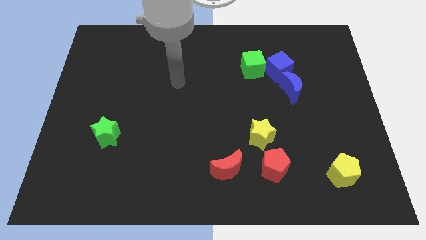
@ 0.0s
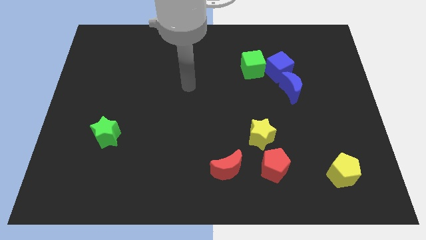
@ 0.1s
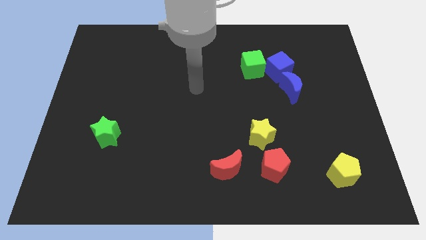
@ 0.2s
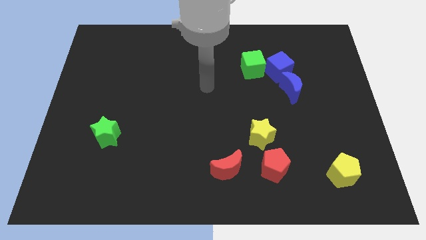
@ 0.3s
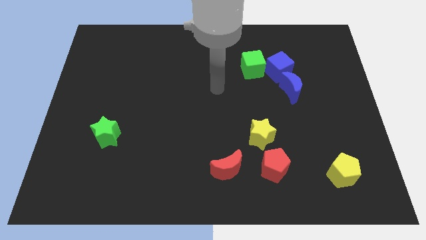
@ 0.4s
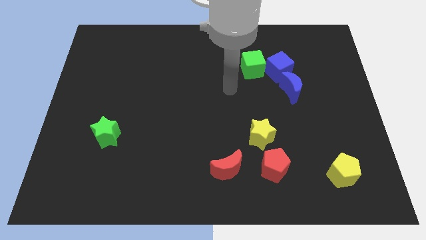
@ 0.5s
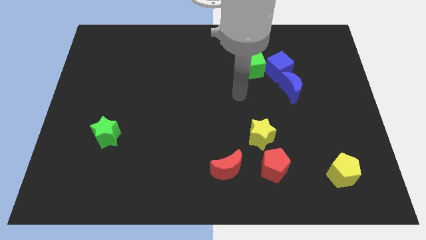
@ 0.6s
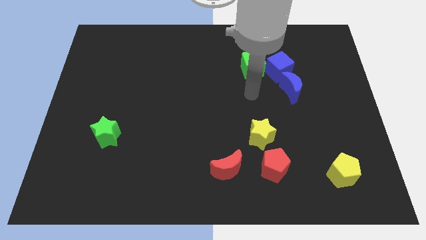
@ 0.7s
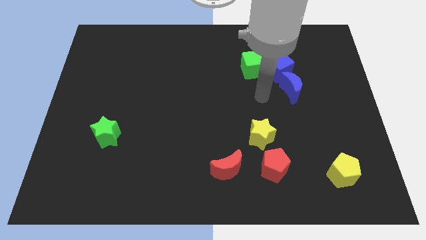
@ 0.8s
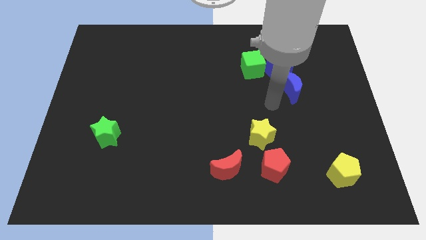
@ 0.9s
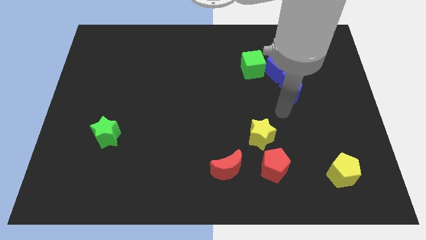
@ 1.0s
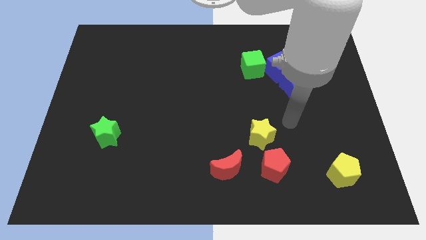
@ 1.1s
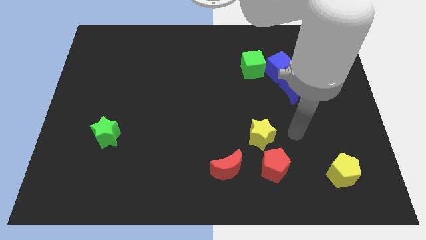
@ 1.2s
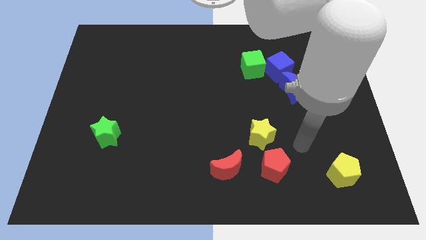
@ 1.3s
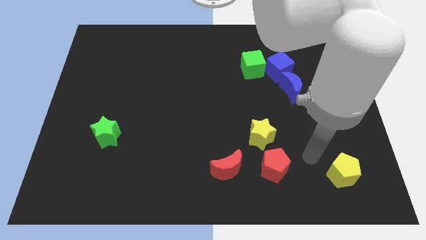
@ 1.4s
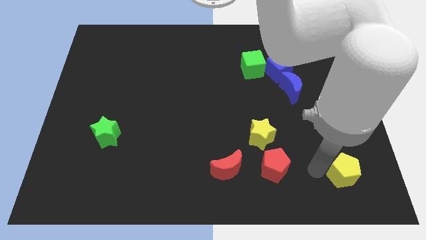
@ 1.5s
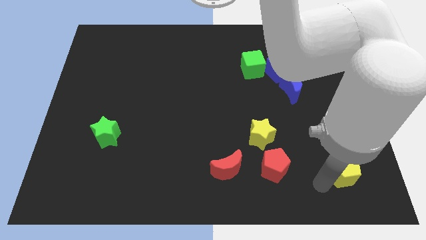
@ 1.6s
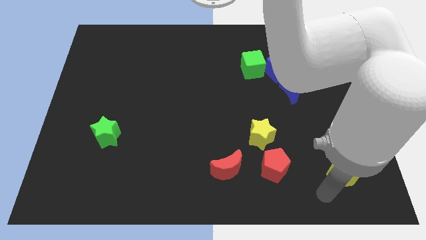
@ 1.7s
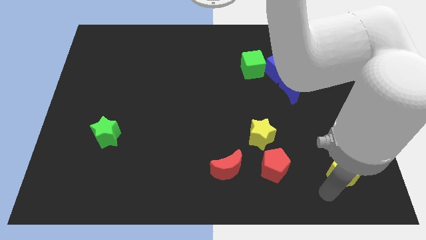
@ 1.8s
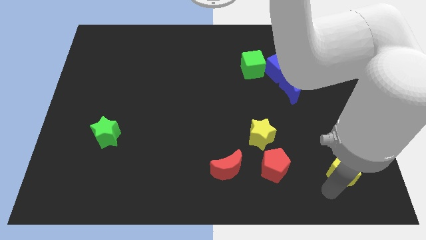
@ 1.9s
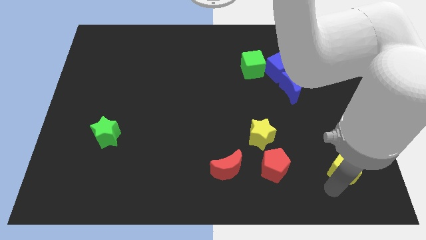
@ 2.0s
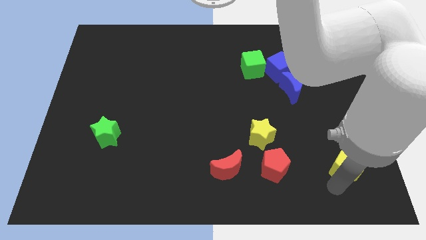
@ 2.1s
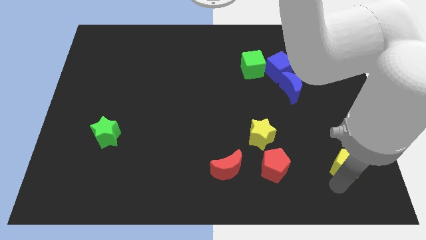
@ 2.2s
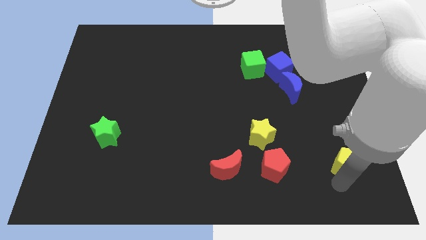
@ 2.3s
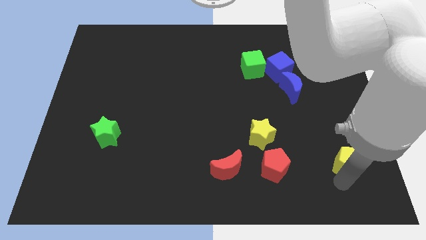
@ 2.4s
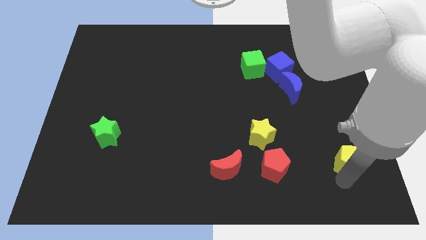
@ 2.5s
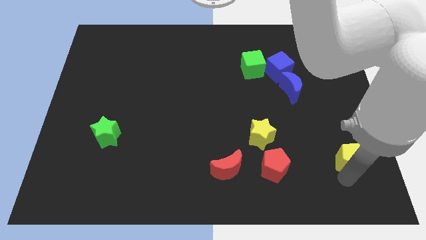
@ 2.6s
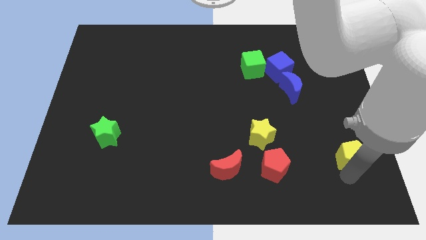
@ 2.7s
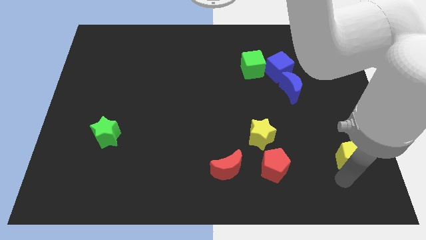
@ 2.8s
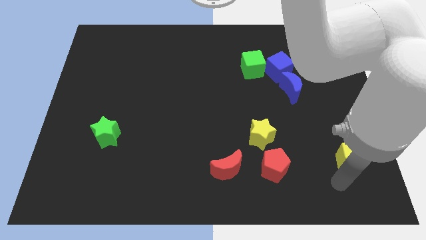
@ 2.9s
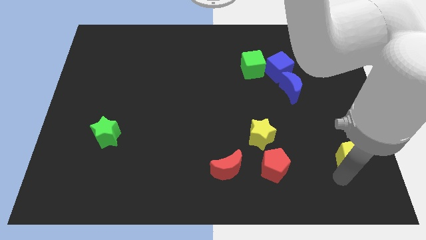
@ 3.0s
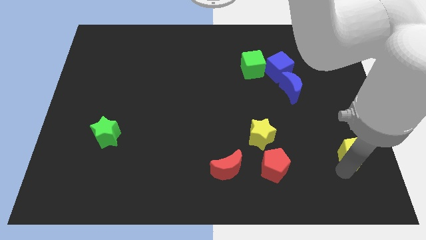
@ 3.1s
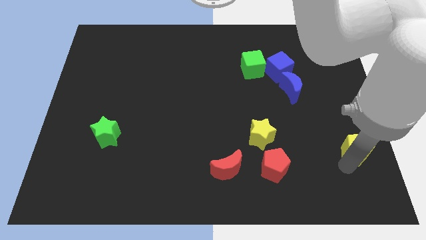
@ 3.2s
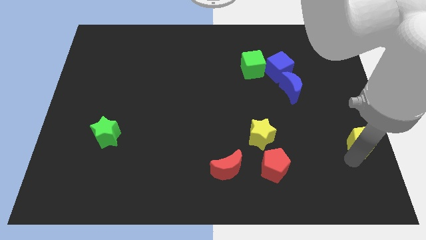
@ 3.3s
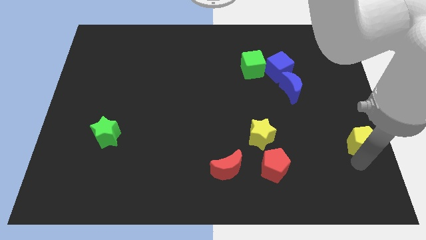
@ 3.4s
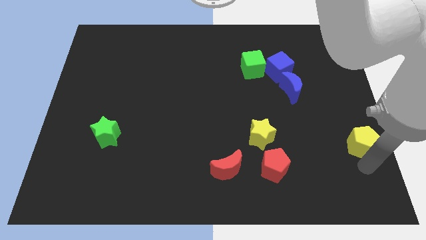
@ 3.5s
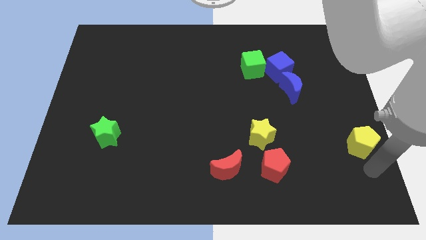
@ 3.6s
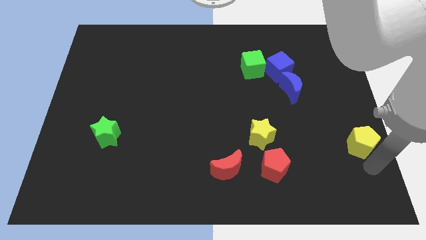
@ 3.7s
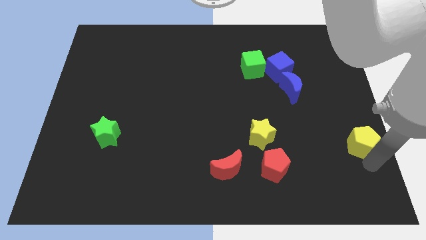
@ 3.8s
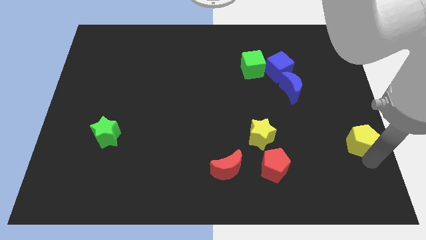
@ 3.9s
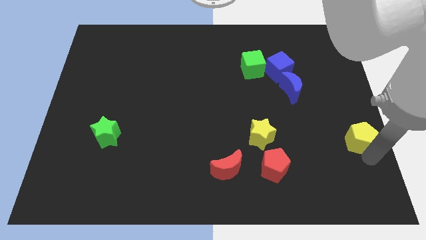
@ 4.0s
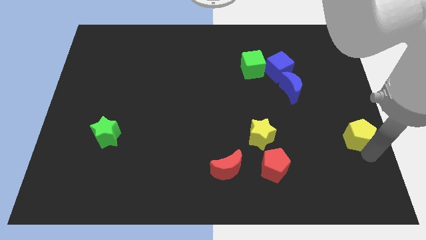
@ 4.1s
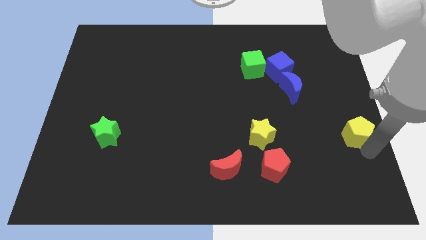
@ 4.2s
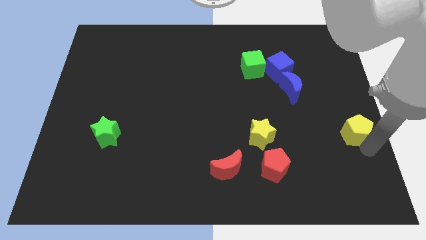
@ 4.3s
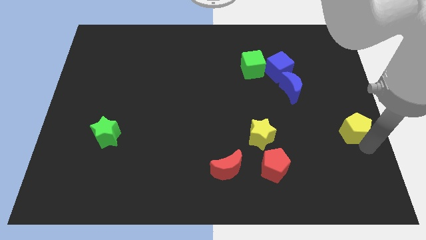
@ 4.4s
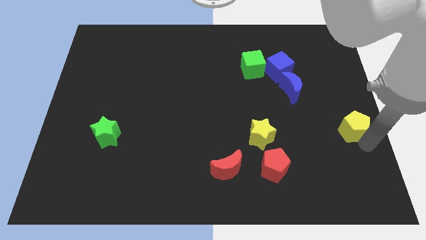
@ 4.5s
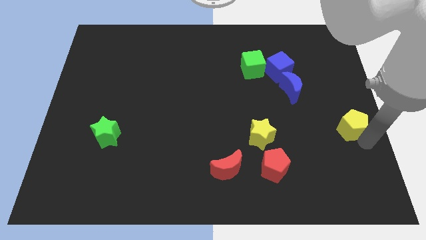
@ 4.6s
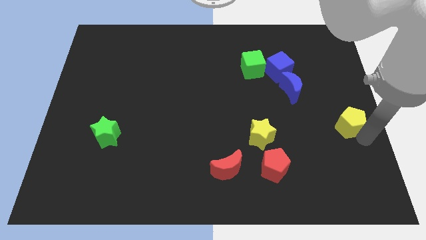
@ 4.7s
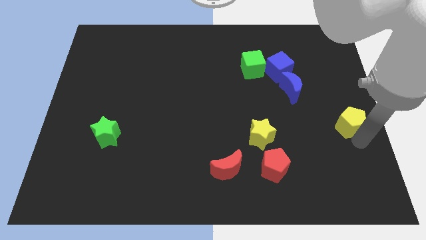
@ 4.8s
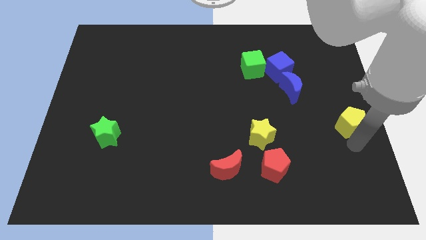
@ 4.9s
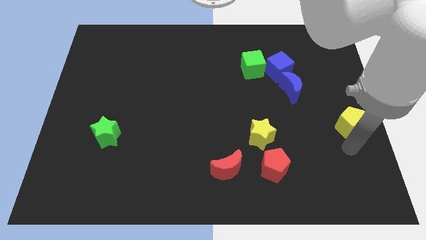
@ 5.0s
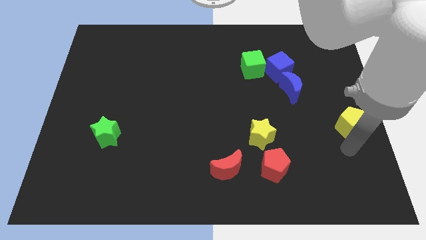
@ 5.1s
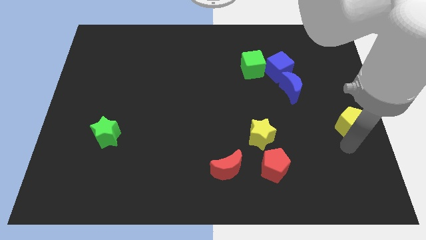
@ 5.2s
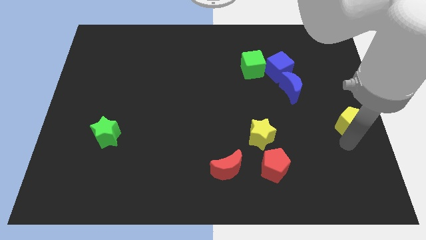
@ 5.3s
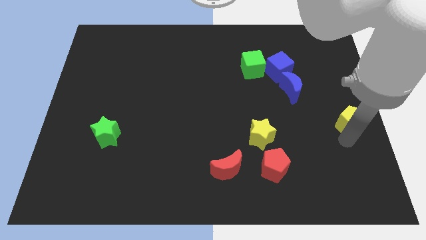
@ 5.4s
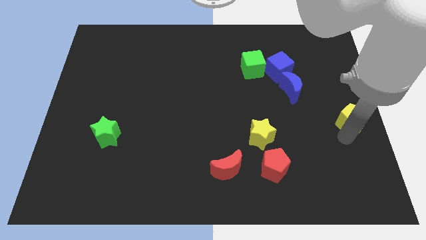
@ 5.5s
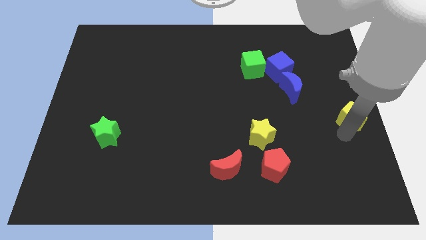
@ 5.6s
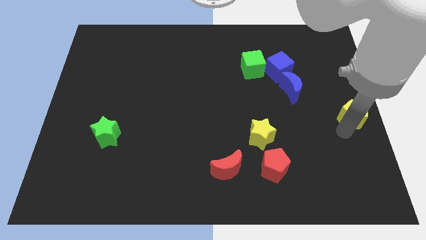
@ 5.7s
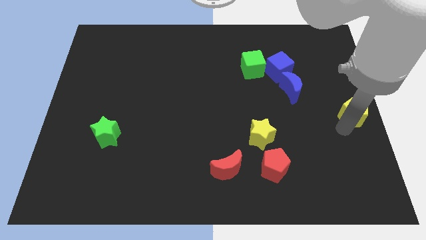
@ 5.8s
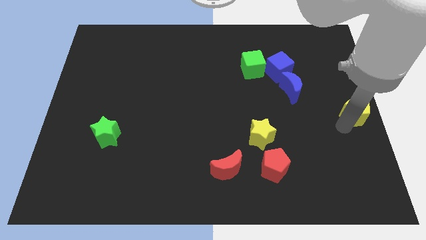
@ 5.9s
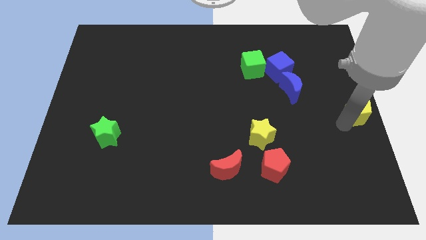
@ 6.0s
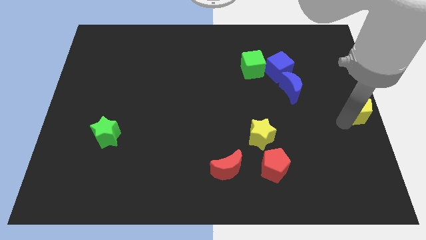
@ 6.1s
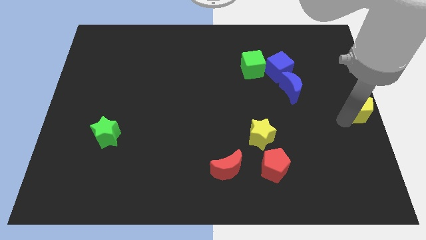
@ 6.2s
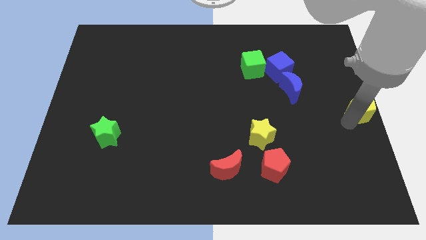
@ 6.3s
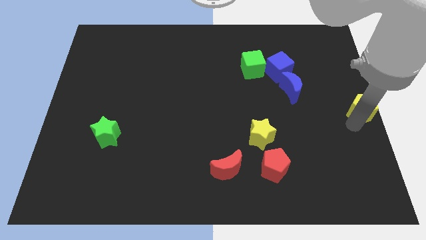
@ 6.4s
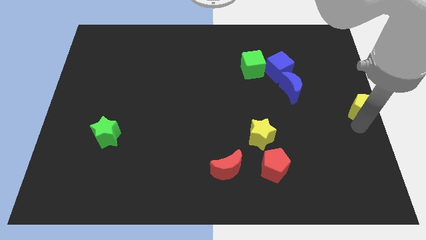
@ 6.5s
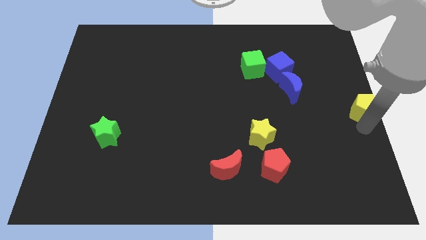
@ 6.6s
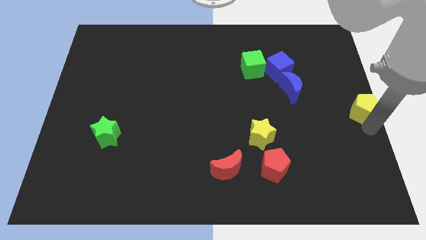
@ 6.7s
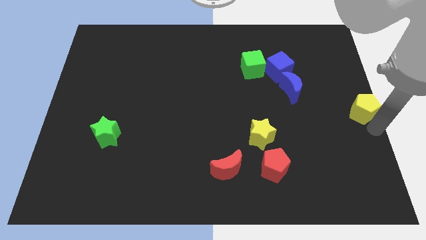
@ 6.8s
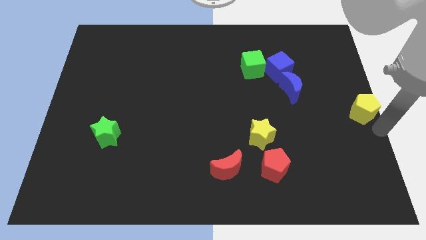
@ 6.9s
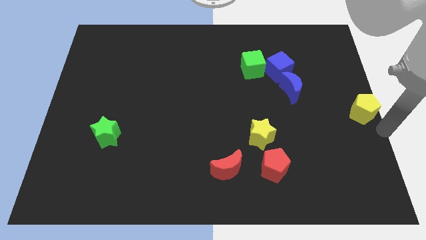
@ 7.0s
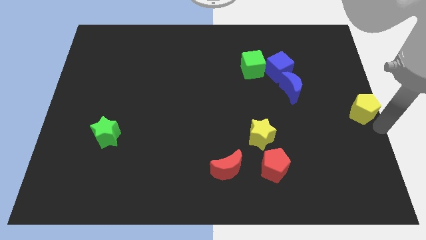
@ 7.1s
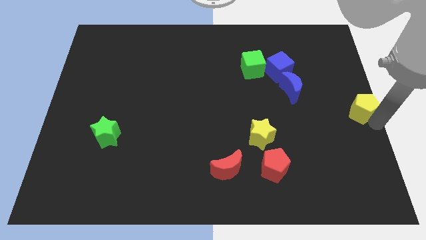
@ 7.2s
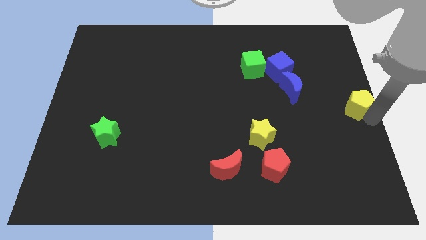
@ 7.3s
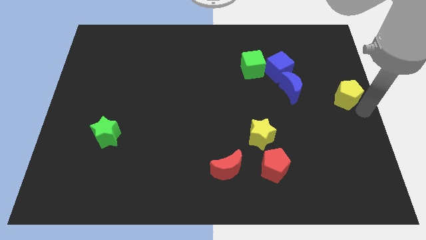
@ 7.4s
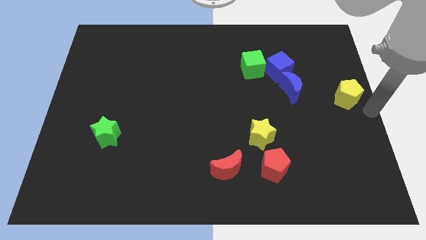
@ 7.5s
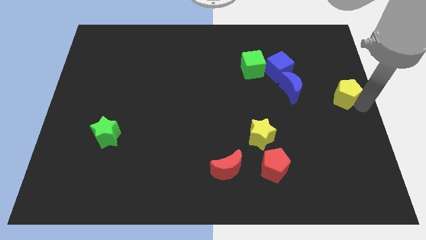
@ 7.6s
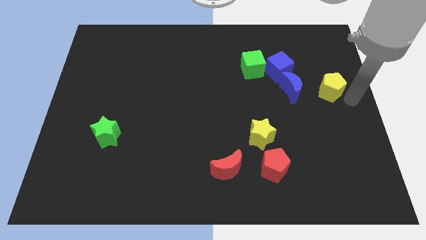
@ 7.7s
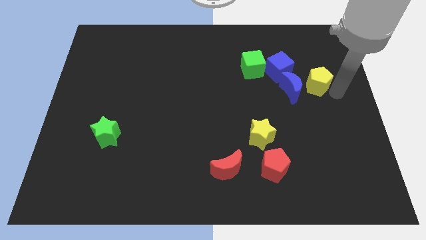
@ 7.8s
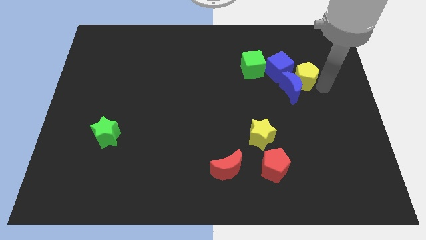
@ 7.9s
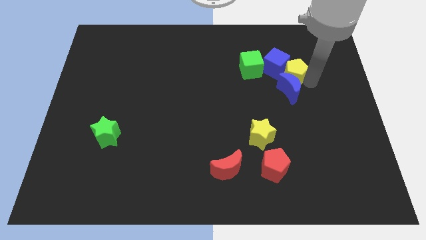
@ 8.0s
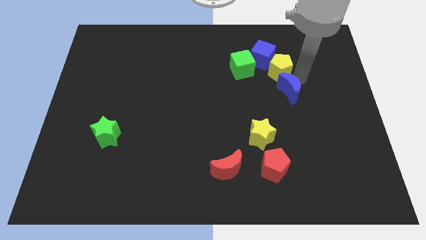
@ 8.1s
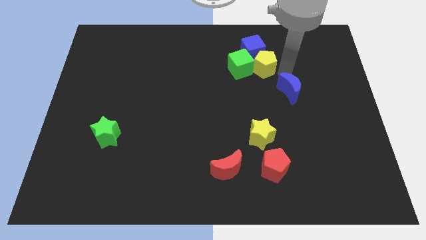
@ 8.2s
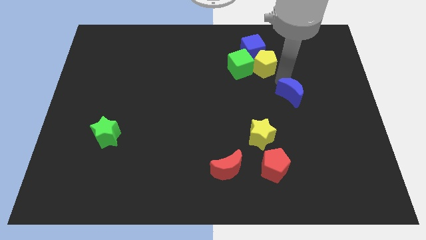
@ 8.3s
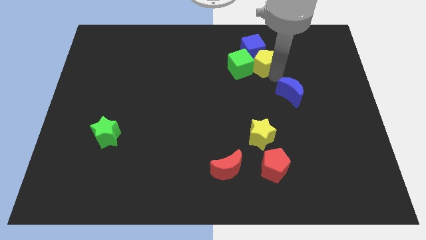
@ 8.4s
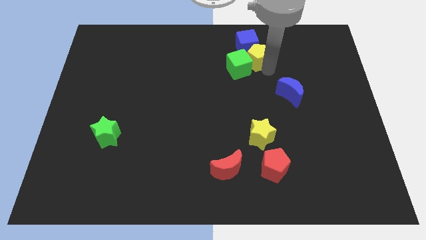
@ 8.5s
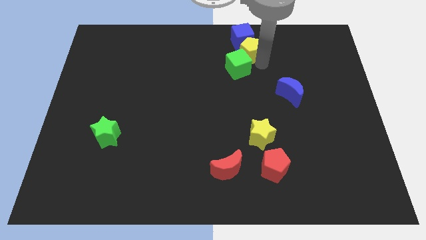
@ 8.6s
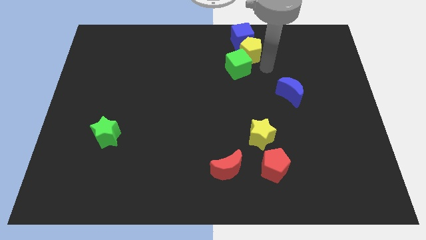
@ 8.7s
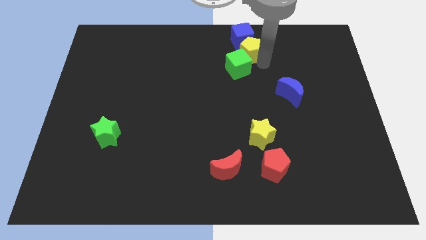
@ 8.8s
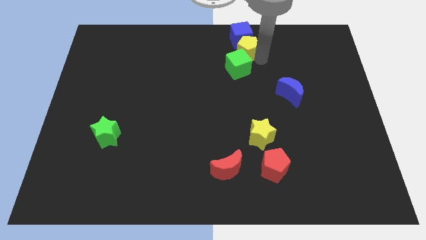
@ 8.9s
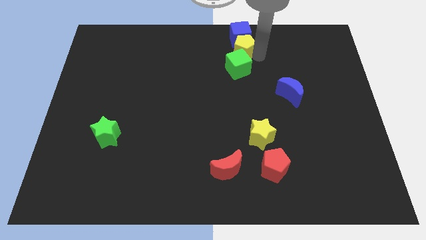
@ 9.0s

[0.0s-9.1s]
push the yellow pentagon to the top side
